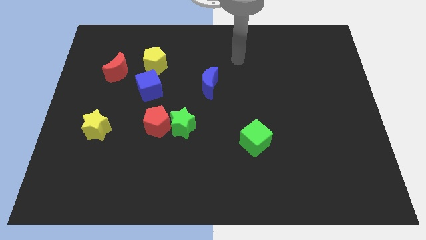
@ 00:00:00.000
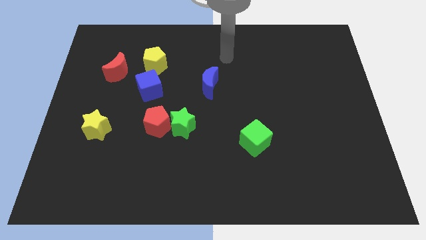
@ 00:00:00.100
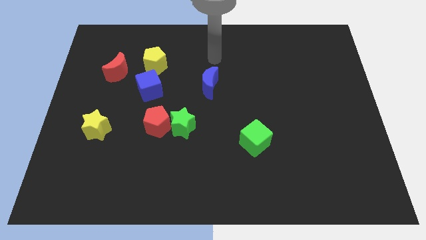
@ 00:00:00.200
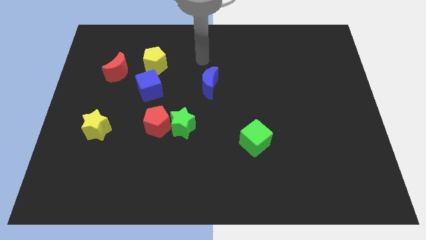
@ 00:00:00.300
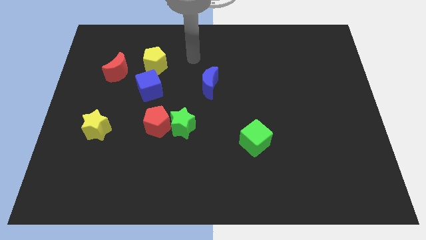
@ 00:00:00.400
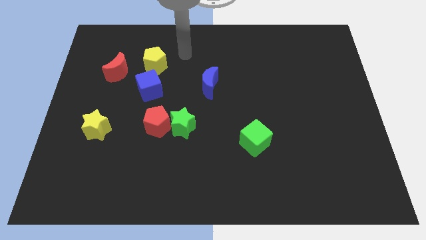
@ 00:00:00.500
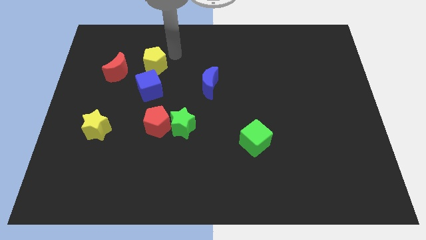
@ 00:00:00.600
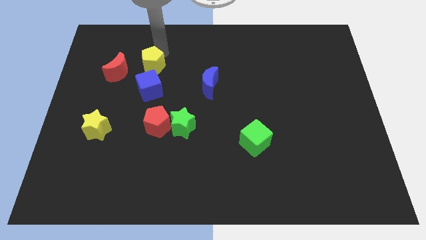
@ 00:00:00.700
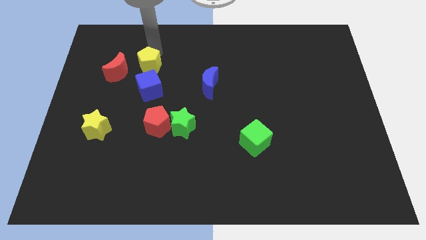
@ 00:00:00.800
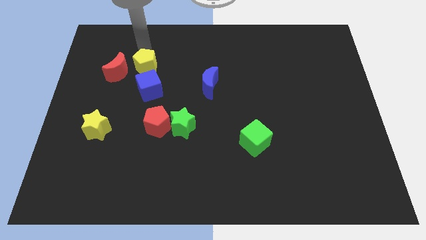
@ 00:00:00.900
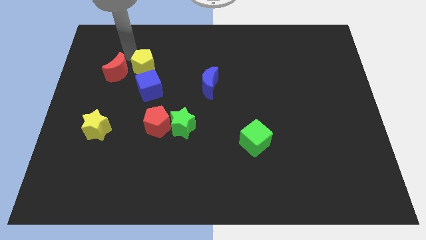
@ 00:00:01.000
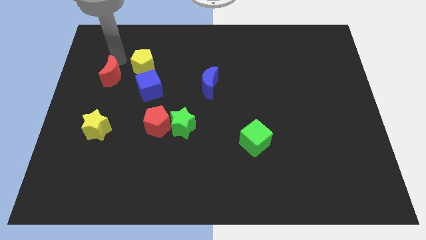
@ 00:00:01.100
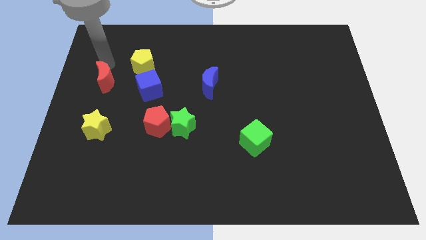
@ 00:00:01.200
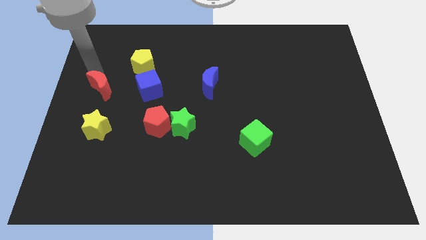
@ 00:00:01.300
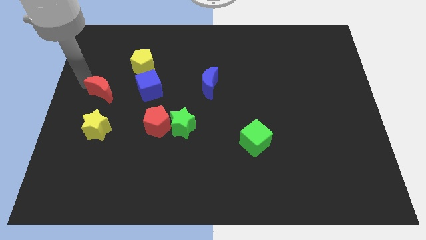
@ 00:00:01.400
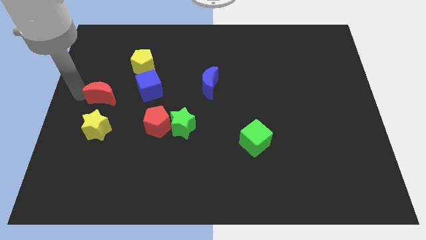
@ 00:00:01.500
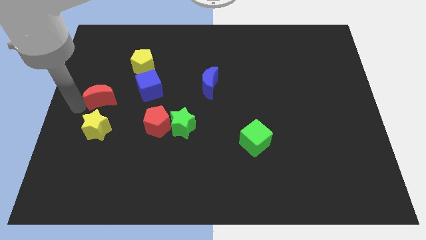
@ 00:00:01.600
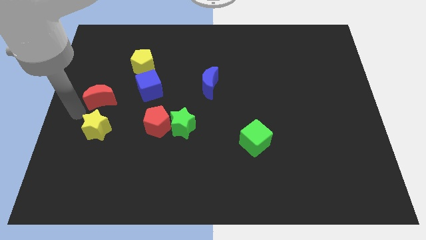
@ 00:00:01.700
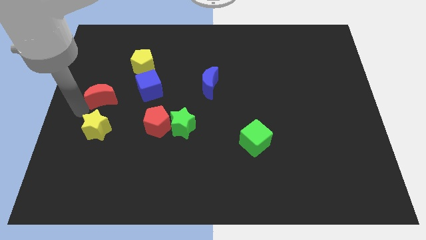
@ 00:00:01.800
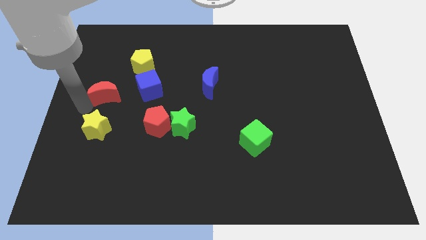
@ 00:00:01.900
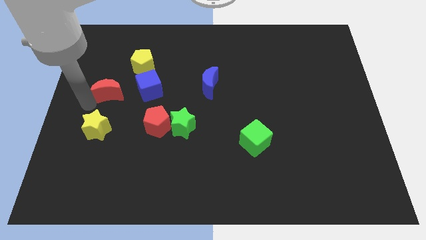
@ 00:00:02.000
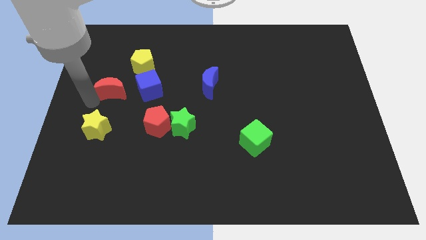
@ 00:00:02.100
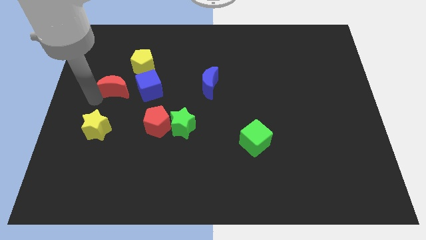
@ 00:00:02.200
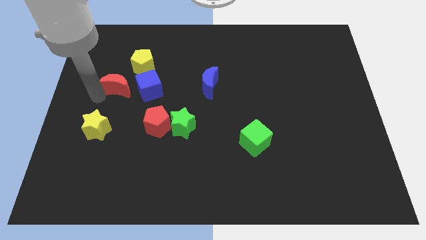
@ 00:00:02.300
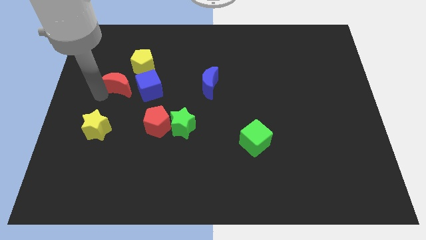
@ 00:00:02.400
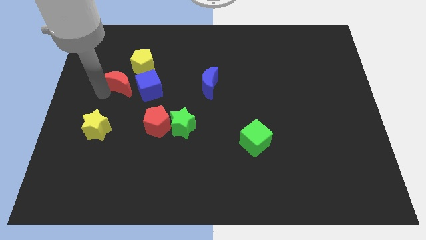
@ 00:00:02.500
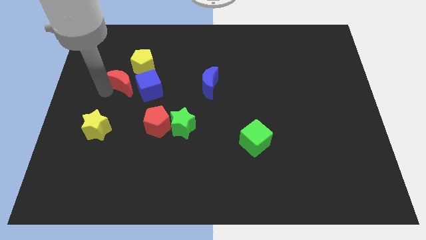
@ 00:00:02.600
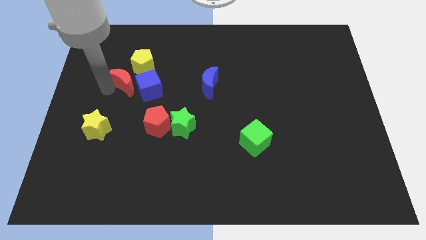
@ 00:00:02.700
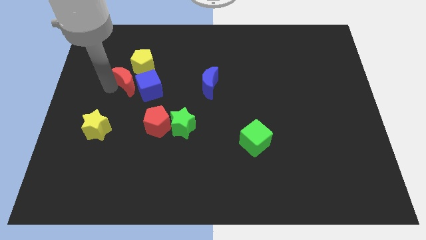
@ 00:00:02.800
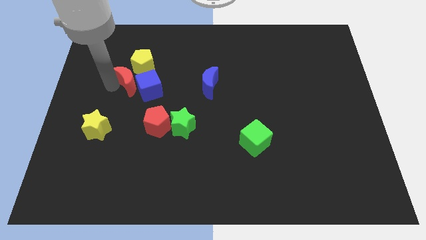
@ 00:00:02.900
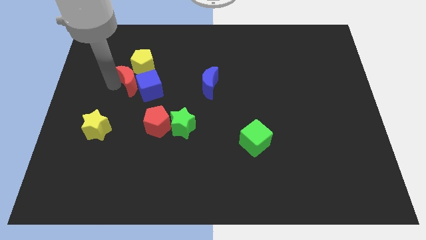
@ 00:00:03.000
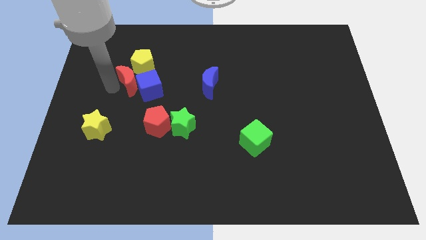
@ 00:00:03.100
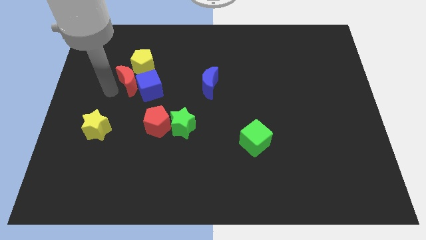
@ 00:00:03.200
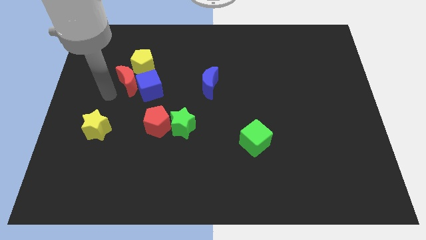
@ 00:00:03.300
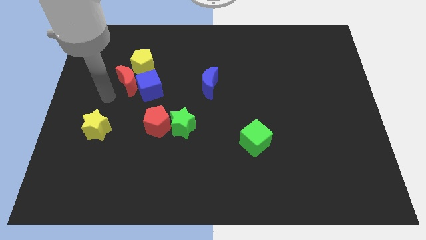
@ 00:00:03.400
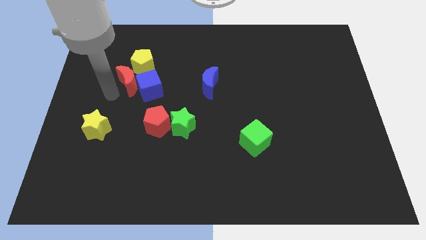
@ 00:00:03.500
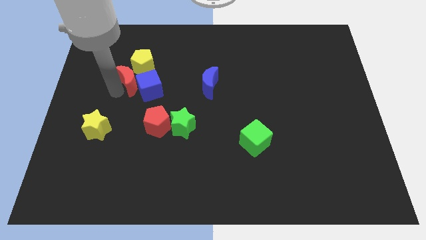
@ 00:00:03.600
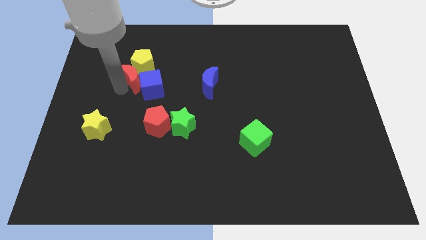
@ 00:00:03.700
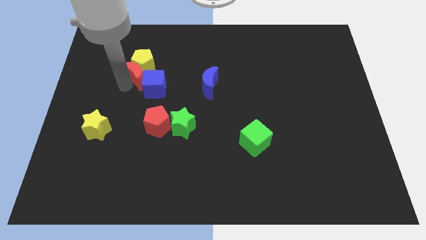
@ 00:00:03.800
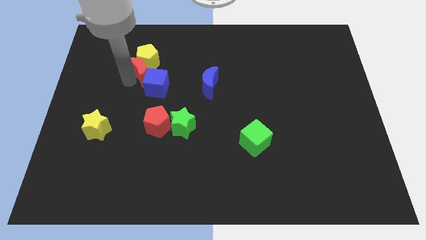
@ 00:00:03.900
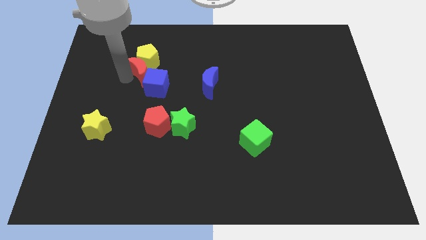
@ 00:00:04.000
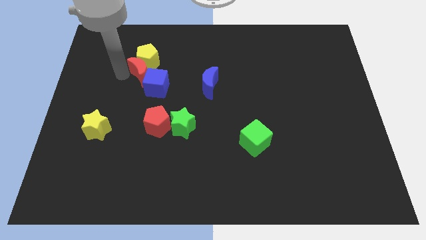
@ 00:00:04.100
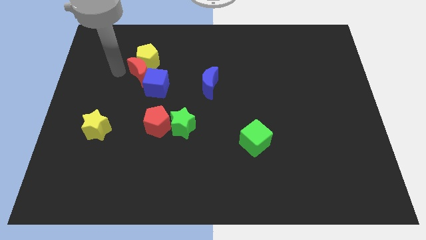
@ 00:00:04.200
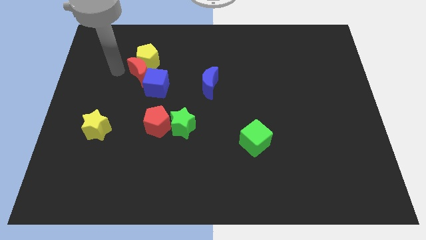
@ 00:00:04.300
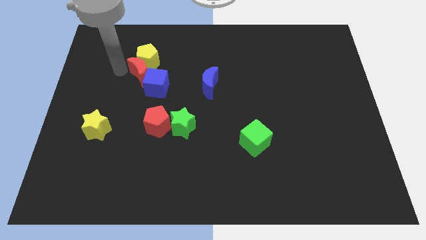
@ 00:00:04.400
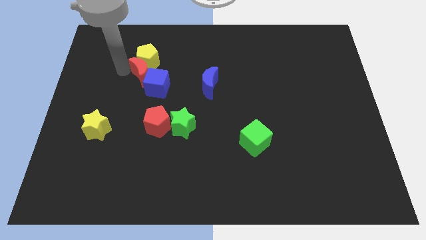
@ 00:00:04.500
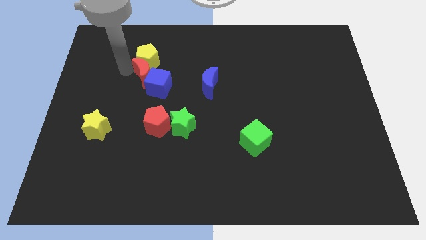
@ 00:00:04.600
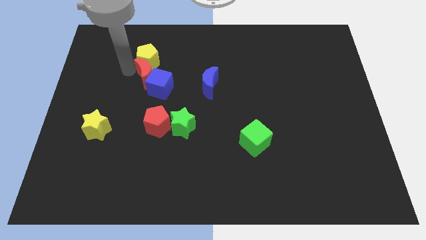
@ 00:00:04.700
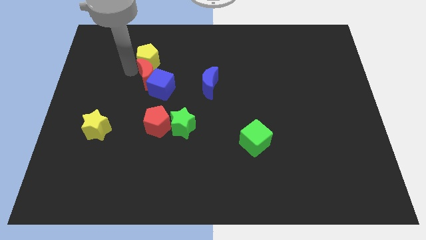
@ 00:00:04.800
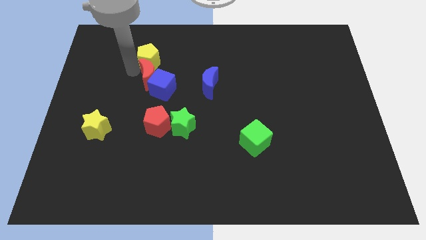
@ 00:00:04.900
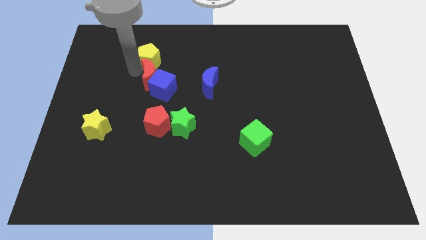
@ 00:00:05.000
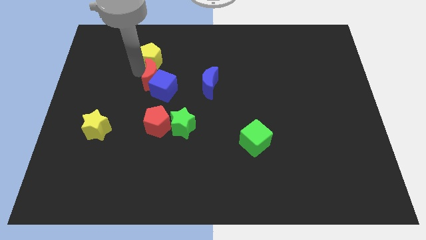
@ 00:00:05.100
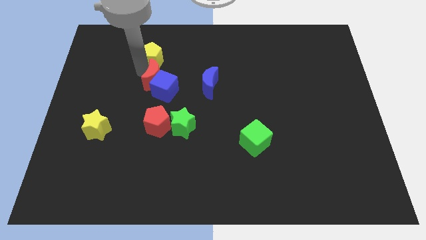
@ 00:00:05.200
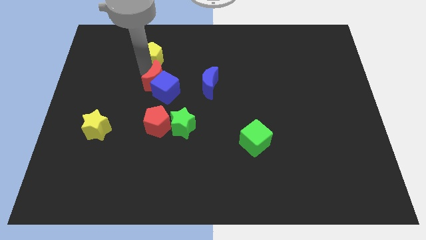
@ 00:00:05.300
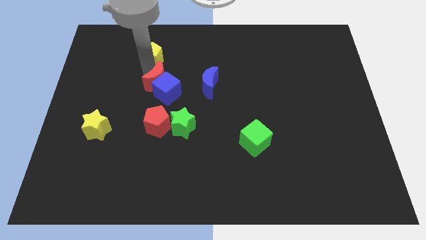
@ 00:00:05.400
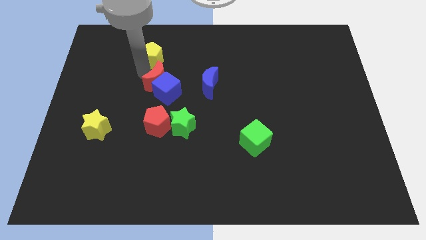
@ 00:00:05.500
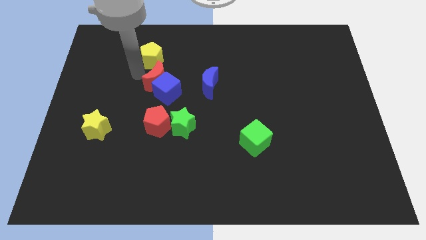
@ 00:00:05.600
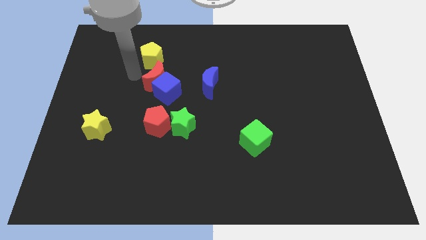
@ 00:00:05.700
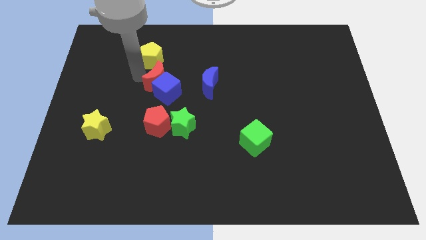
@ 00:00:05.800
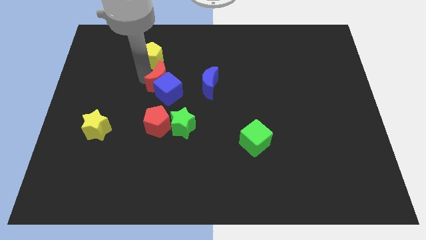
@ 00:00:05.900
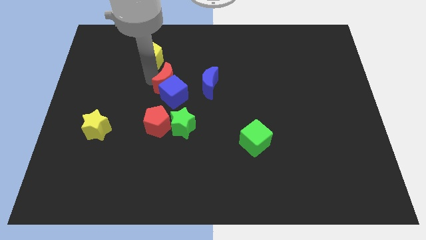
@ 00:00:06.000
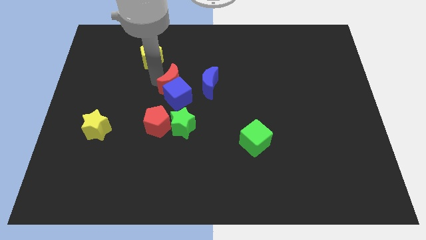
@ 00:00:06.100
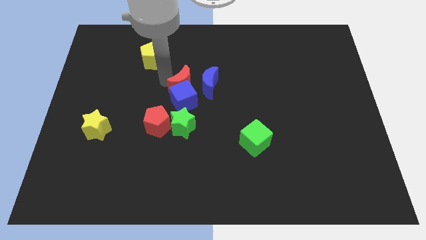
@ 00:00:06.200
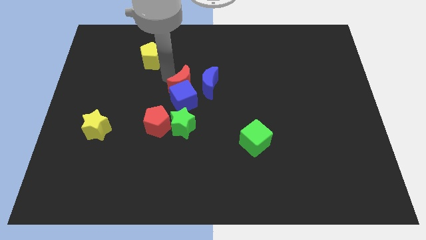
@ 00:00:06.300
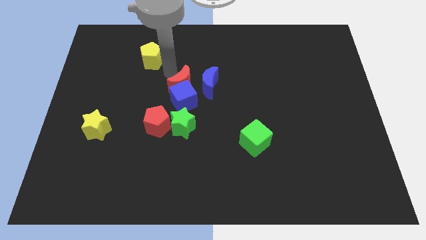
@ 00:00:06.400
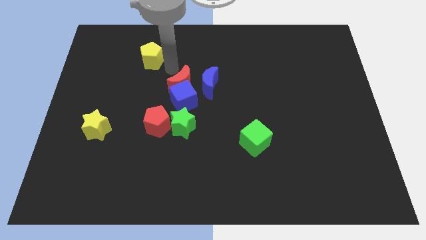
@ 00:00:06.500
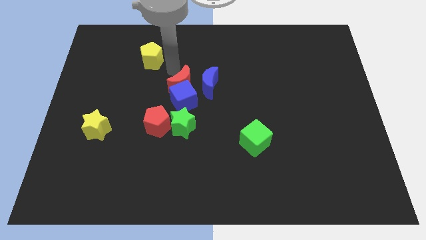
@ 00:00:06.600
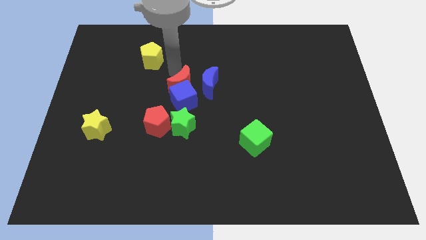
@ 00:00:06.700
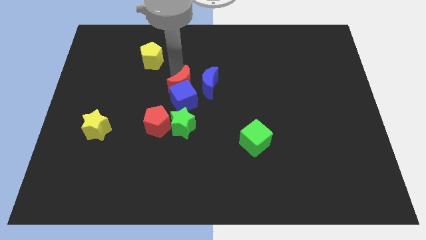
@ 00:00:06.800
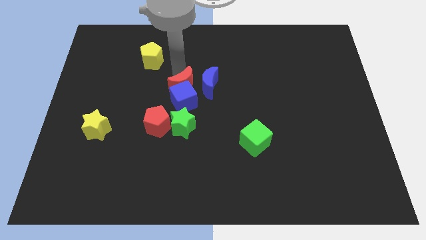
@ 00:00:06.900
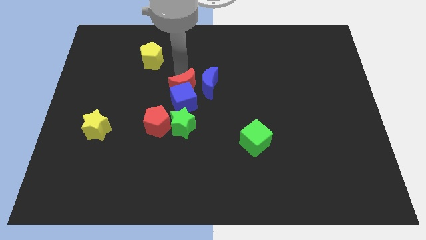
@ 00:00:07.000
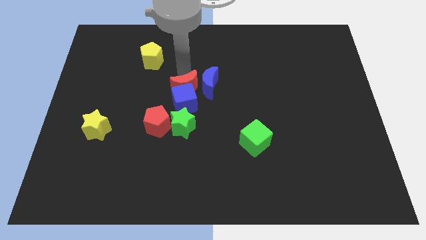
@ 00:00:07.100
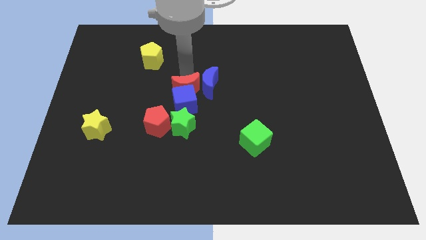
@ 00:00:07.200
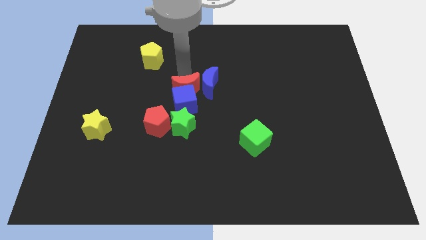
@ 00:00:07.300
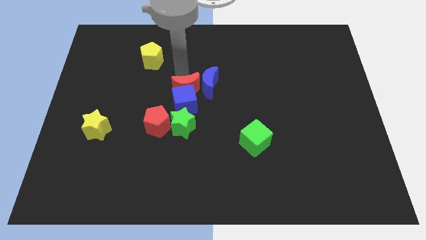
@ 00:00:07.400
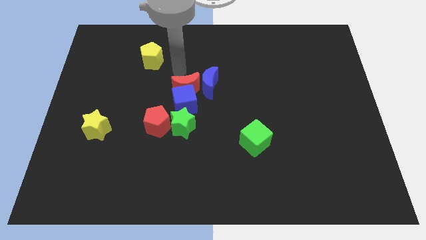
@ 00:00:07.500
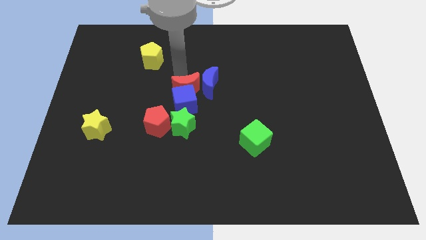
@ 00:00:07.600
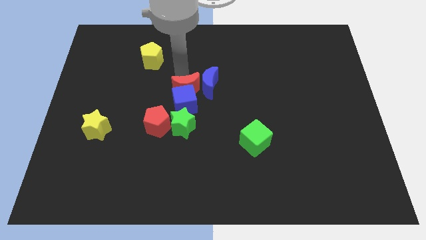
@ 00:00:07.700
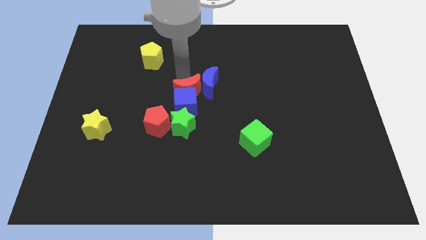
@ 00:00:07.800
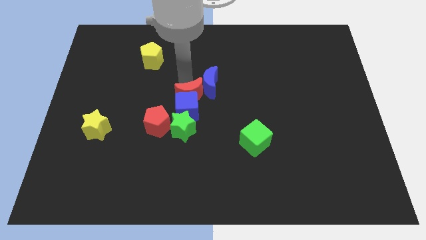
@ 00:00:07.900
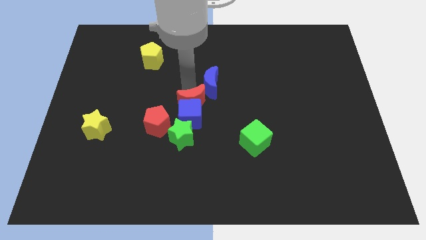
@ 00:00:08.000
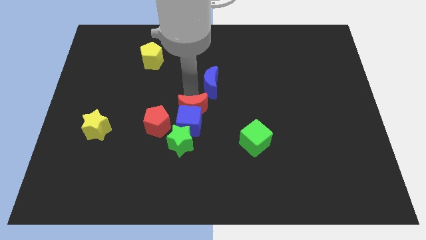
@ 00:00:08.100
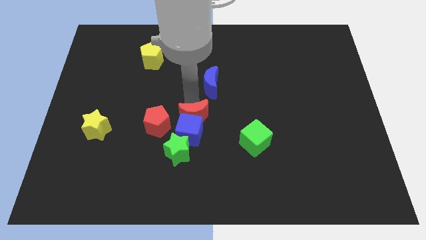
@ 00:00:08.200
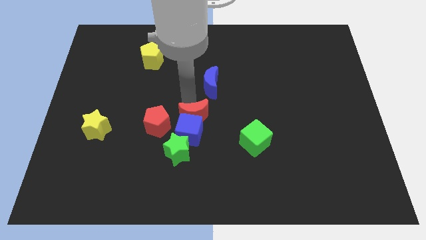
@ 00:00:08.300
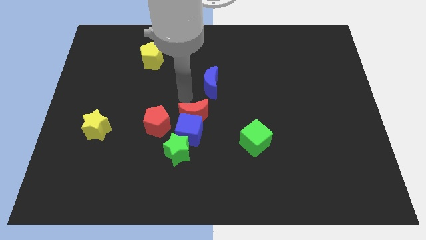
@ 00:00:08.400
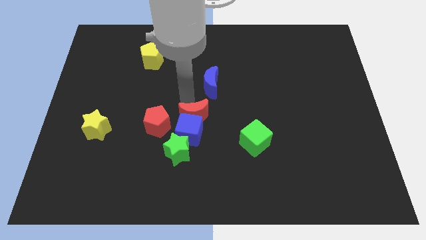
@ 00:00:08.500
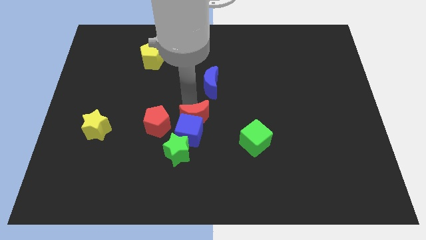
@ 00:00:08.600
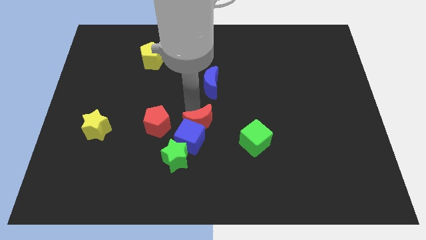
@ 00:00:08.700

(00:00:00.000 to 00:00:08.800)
slide the red moon to the left side of the green cube
